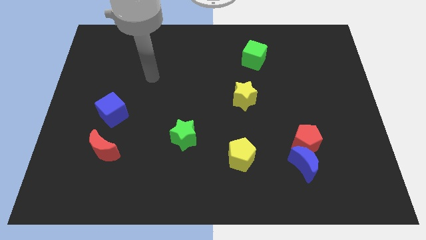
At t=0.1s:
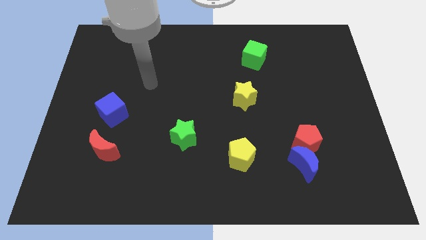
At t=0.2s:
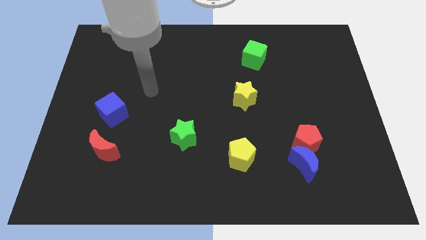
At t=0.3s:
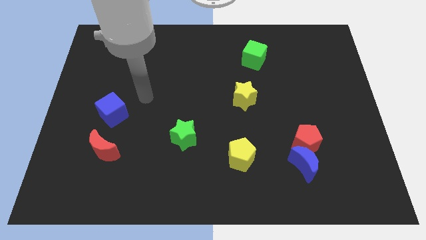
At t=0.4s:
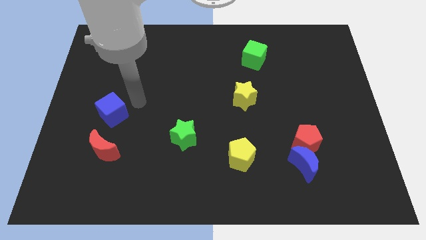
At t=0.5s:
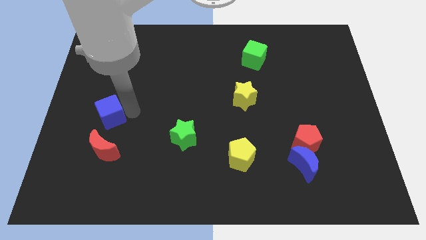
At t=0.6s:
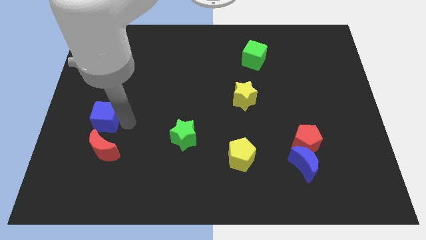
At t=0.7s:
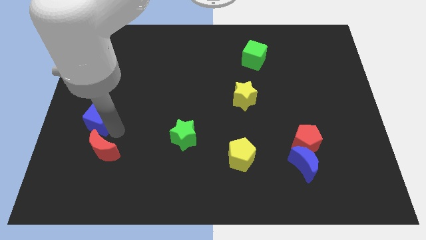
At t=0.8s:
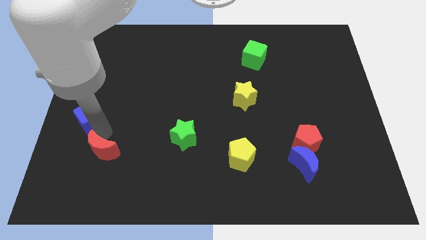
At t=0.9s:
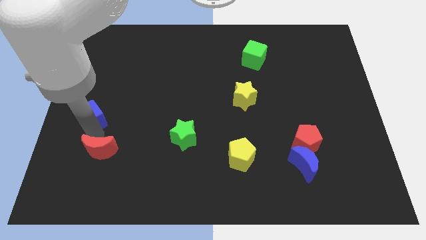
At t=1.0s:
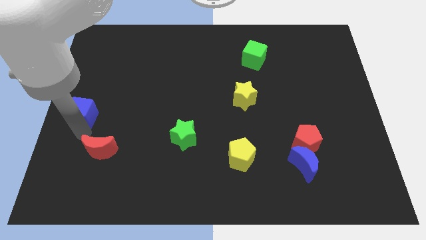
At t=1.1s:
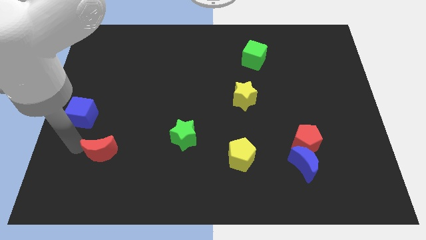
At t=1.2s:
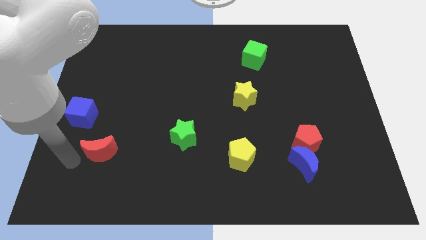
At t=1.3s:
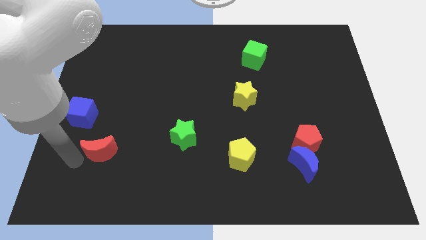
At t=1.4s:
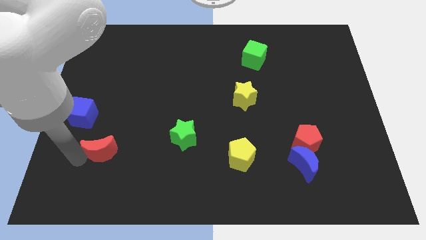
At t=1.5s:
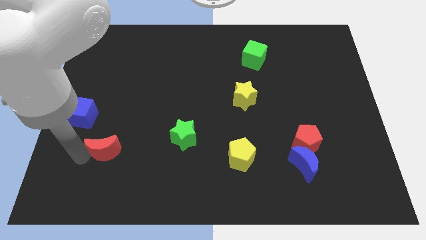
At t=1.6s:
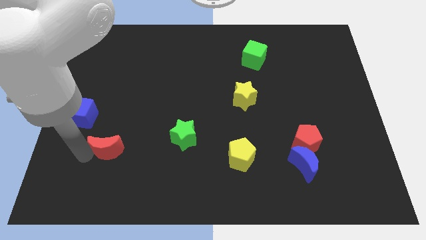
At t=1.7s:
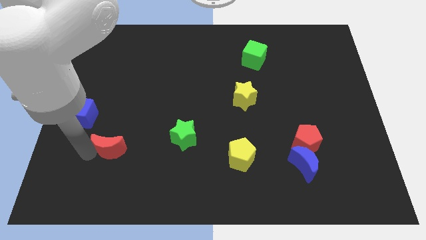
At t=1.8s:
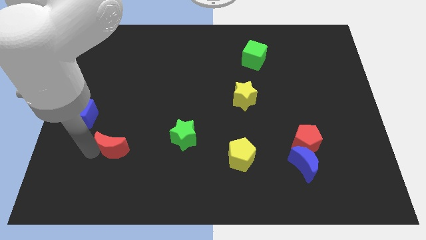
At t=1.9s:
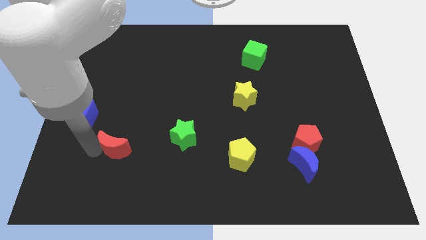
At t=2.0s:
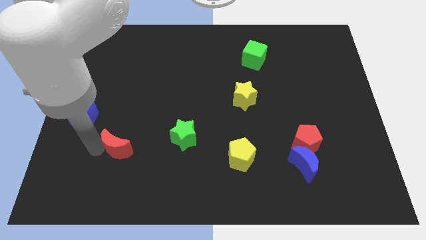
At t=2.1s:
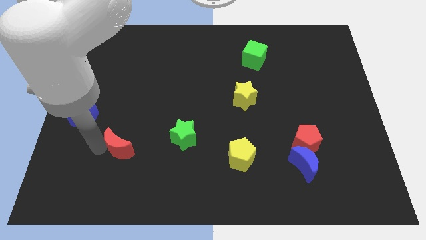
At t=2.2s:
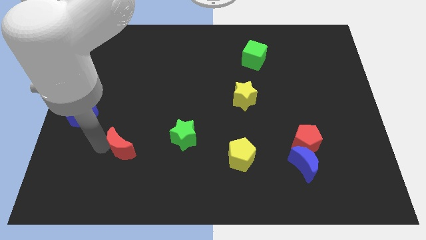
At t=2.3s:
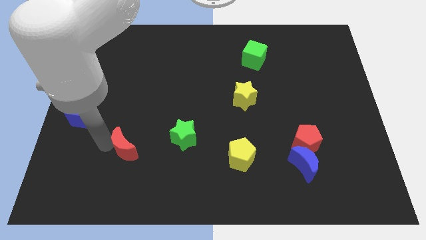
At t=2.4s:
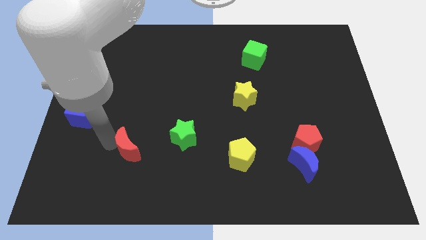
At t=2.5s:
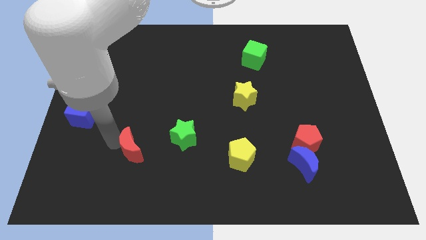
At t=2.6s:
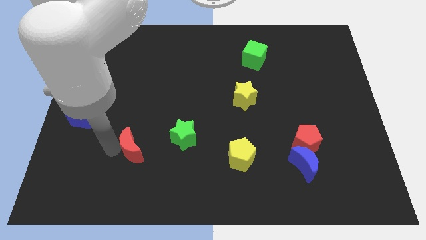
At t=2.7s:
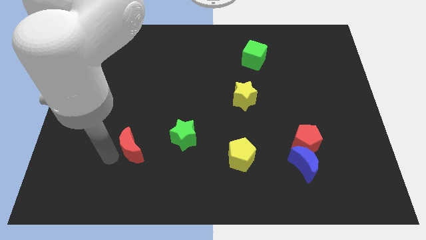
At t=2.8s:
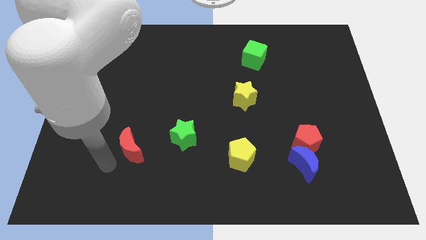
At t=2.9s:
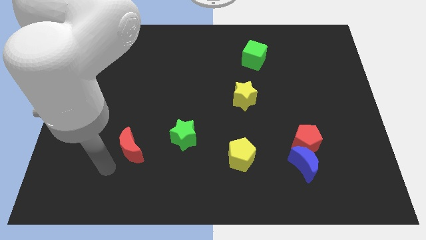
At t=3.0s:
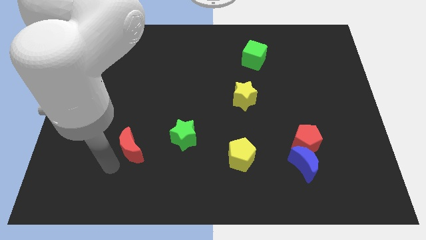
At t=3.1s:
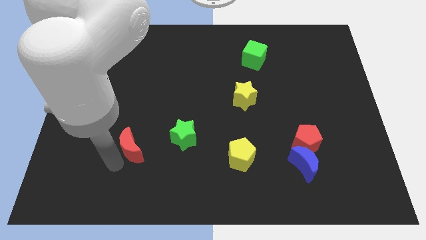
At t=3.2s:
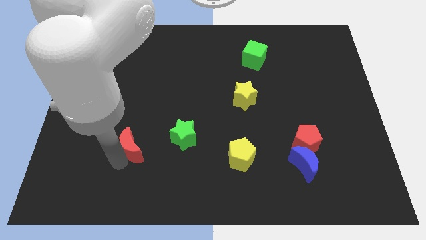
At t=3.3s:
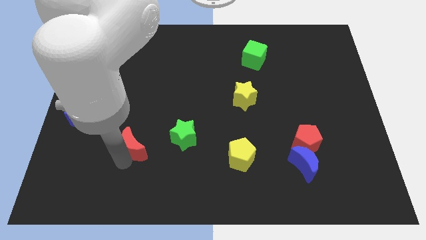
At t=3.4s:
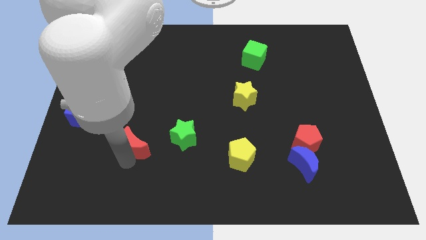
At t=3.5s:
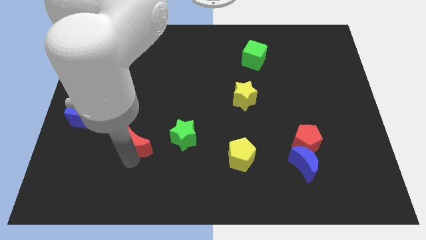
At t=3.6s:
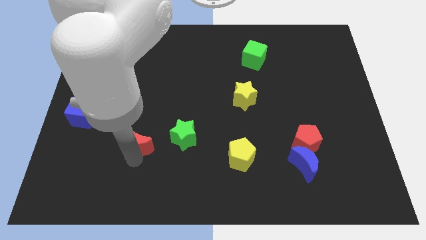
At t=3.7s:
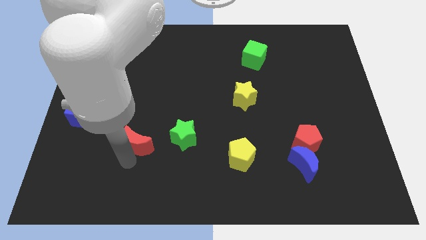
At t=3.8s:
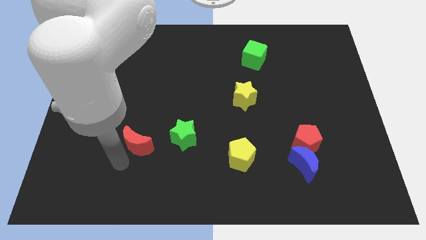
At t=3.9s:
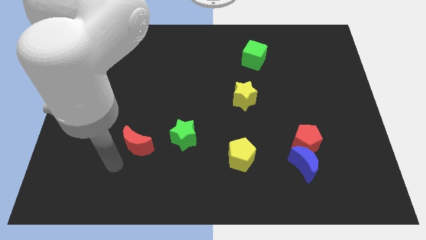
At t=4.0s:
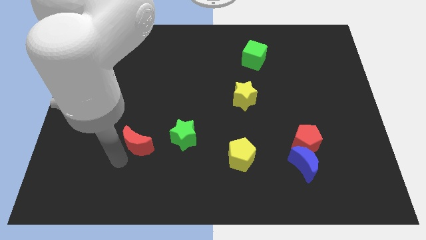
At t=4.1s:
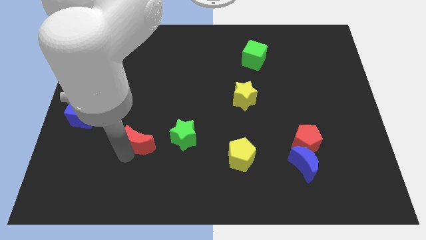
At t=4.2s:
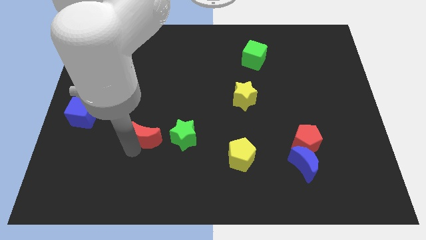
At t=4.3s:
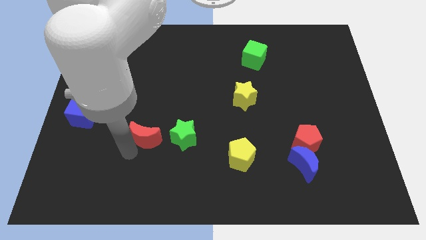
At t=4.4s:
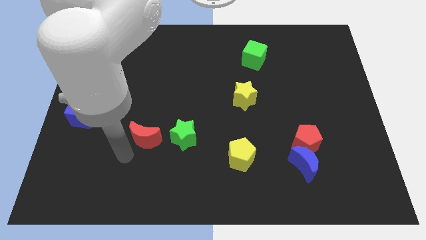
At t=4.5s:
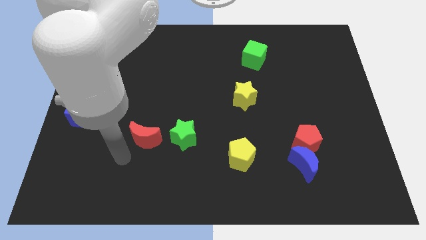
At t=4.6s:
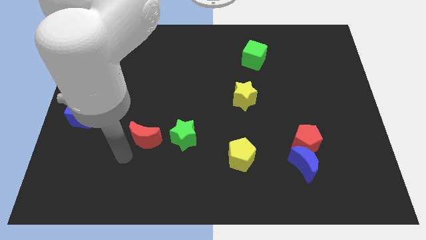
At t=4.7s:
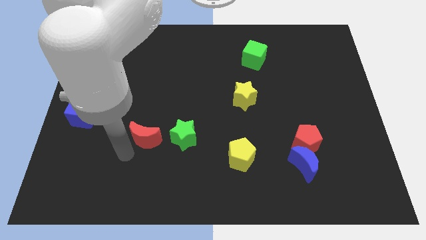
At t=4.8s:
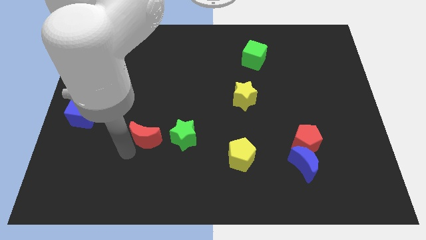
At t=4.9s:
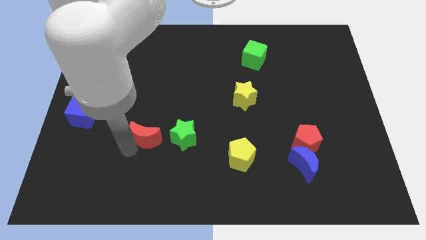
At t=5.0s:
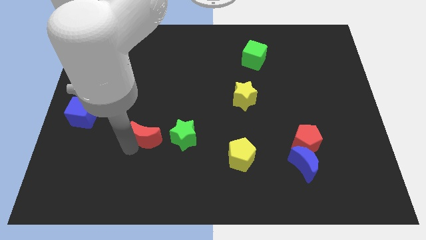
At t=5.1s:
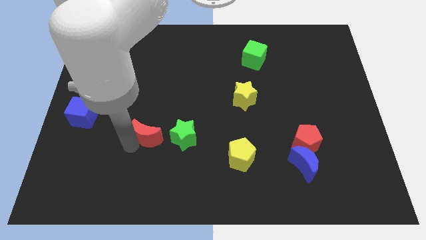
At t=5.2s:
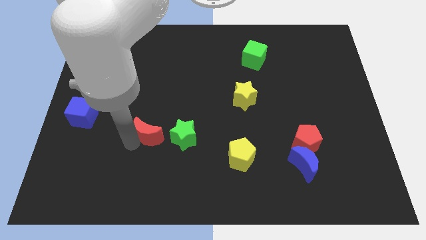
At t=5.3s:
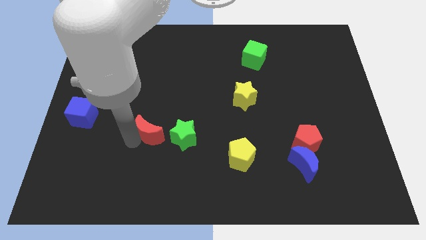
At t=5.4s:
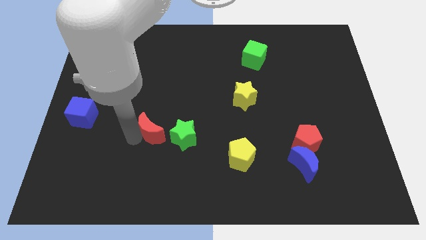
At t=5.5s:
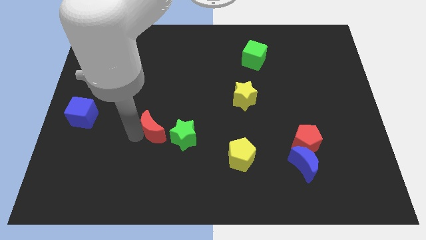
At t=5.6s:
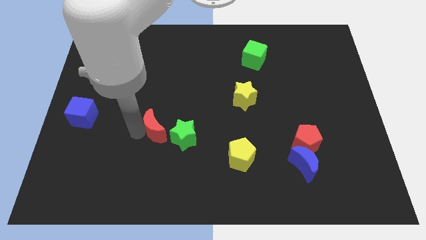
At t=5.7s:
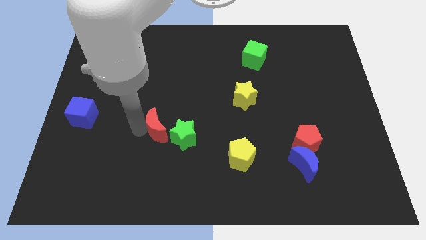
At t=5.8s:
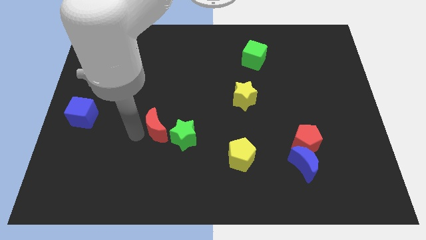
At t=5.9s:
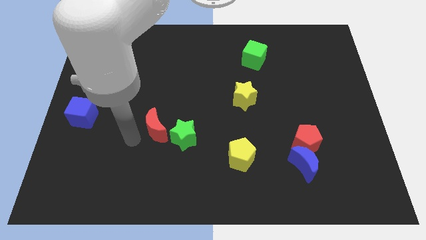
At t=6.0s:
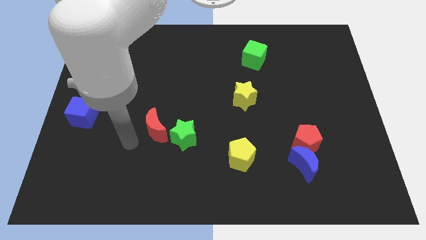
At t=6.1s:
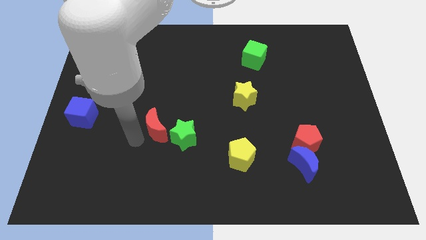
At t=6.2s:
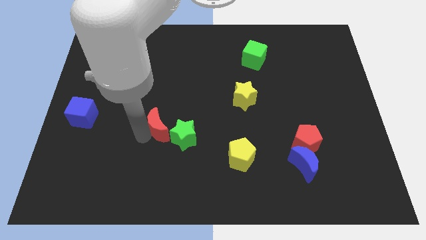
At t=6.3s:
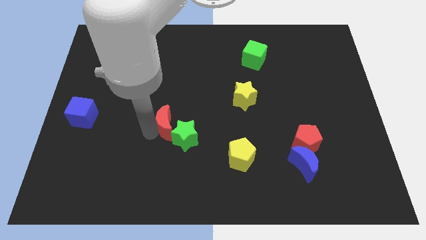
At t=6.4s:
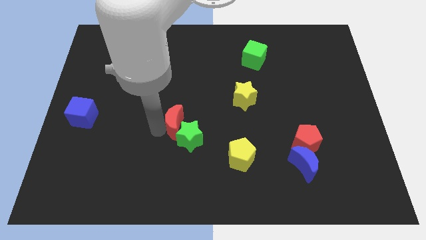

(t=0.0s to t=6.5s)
push the red moon to the center

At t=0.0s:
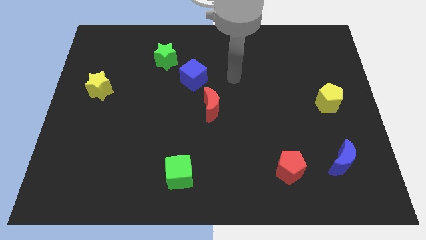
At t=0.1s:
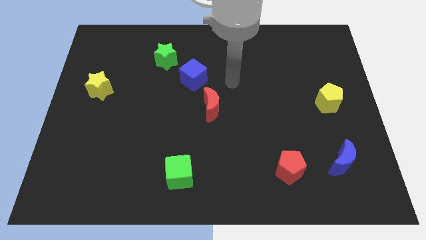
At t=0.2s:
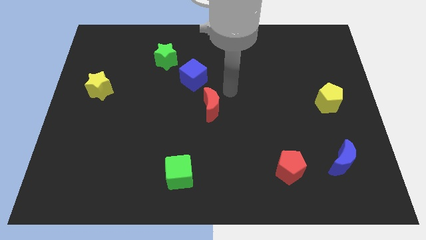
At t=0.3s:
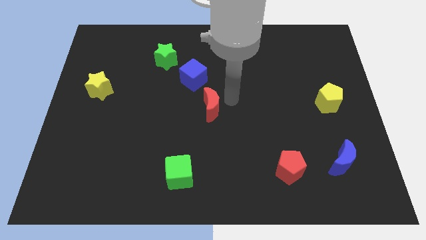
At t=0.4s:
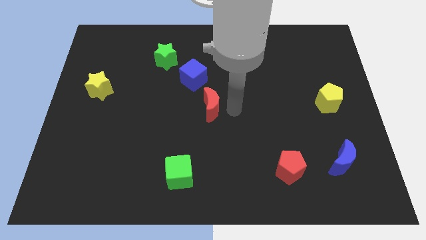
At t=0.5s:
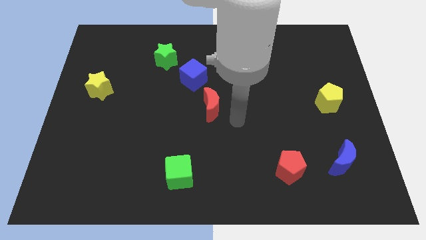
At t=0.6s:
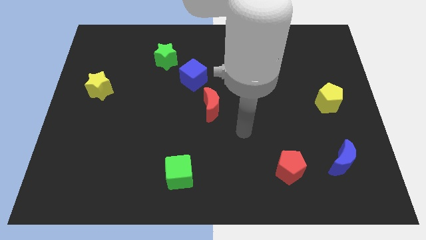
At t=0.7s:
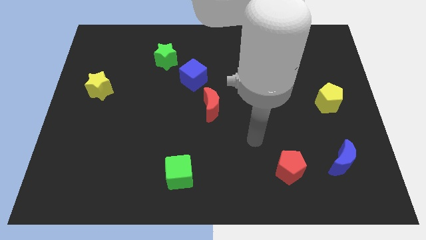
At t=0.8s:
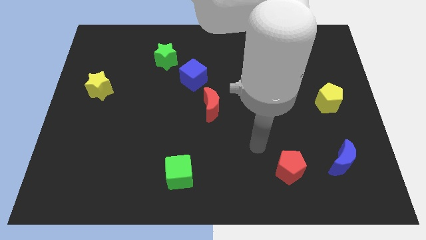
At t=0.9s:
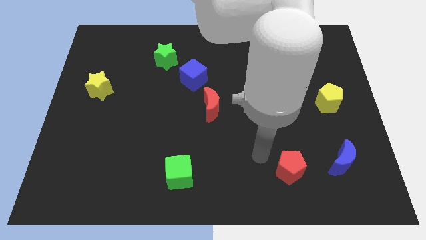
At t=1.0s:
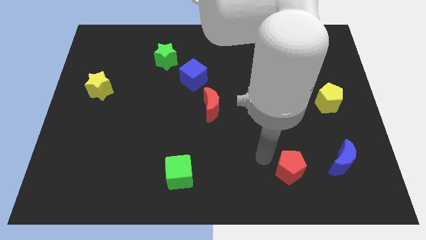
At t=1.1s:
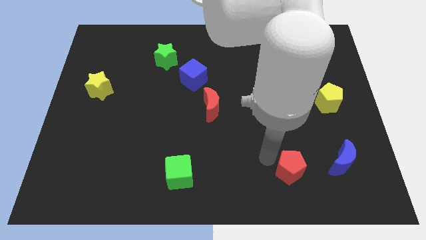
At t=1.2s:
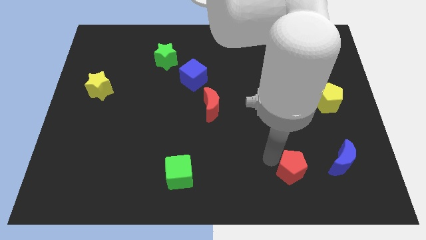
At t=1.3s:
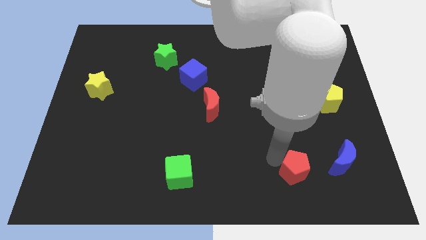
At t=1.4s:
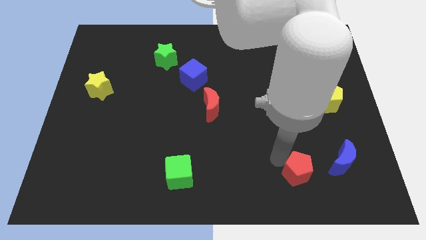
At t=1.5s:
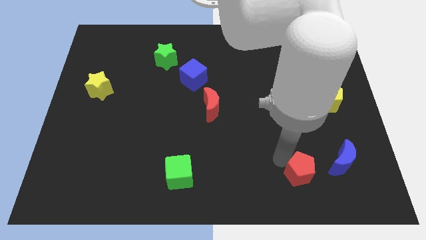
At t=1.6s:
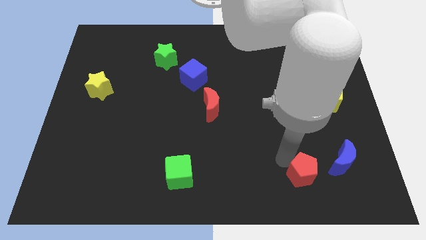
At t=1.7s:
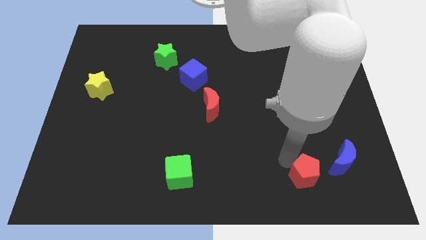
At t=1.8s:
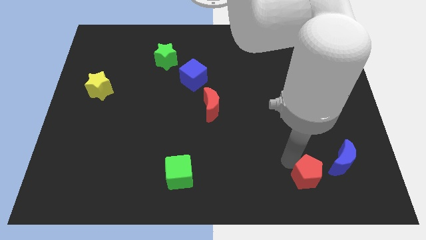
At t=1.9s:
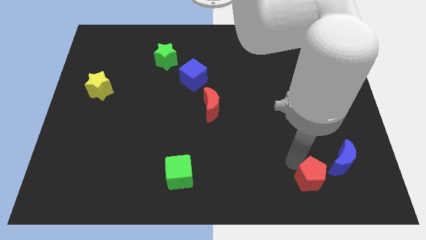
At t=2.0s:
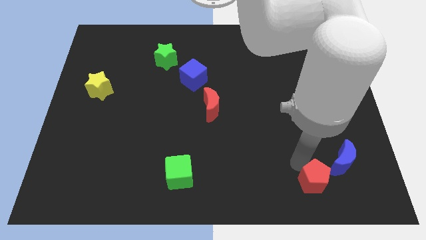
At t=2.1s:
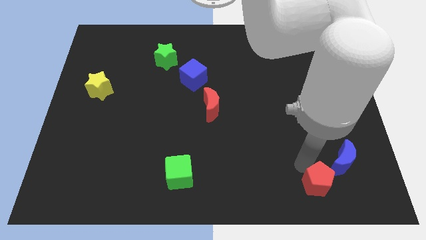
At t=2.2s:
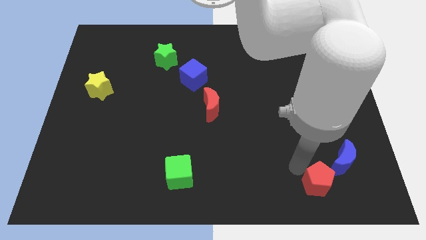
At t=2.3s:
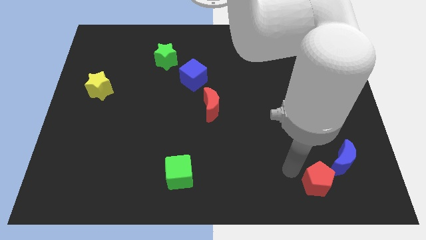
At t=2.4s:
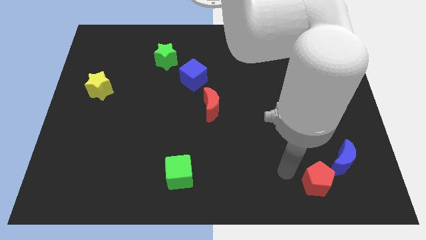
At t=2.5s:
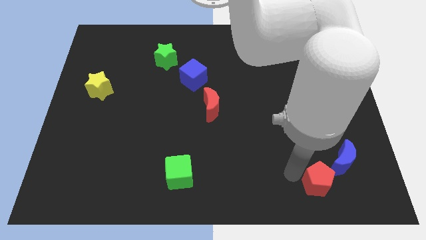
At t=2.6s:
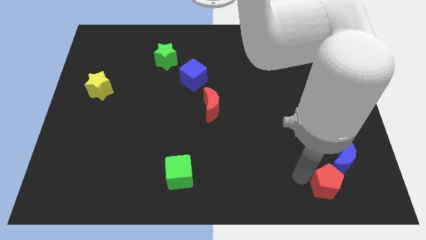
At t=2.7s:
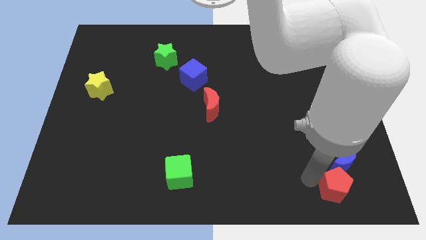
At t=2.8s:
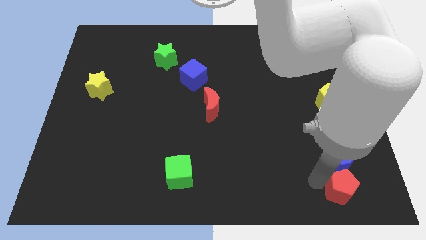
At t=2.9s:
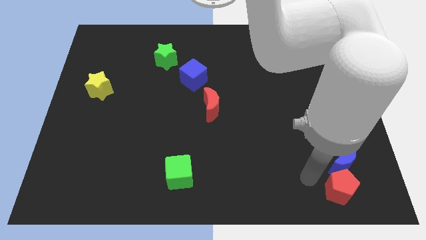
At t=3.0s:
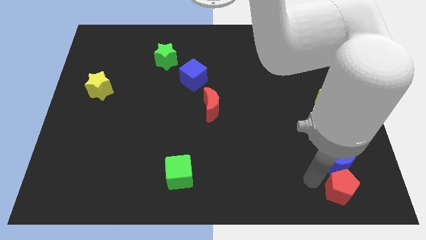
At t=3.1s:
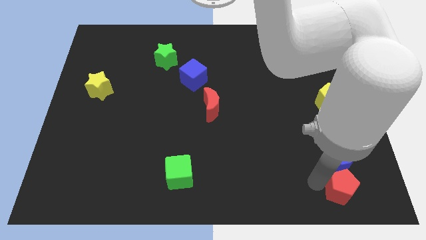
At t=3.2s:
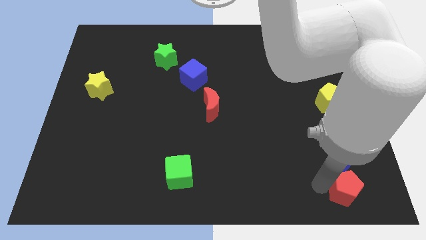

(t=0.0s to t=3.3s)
put the red pentagon to the lower right corner
